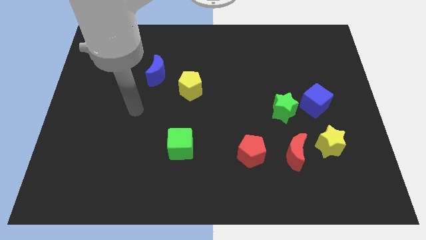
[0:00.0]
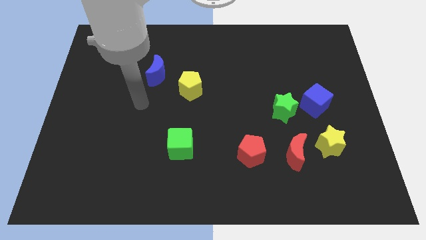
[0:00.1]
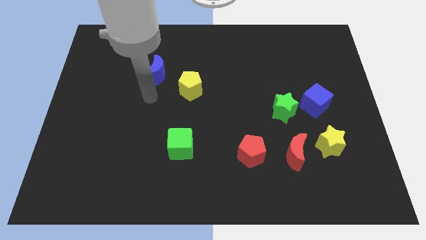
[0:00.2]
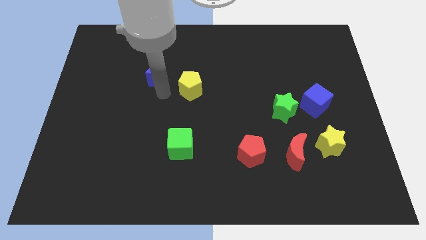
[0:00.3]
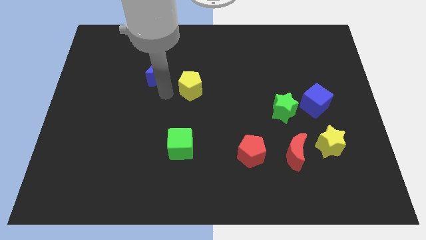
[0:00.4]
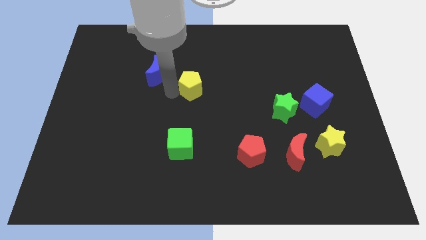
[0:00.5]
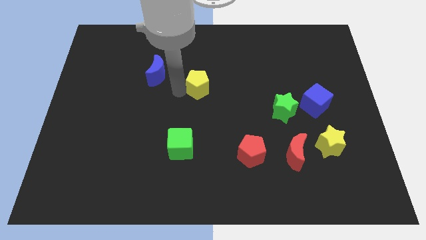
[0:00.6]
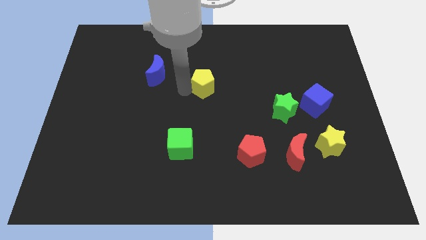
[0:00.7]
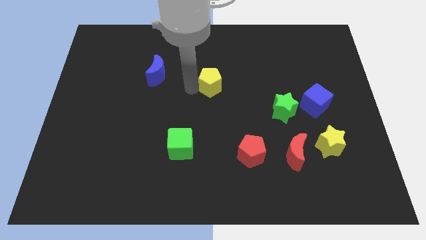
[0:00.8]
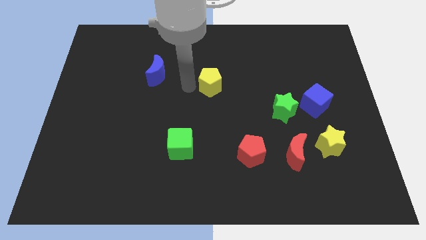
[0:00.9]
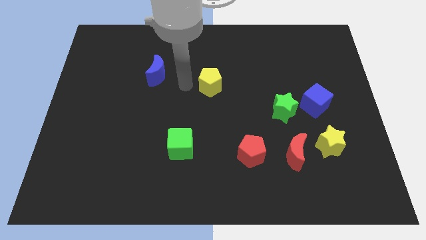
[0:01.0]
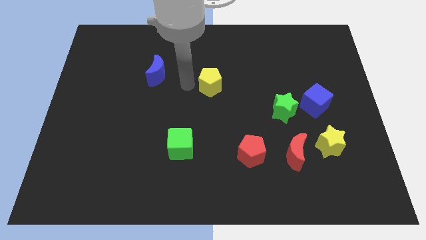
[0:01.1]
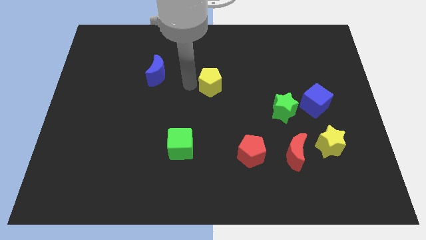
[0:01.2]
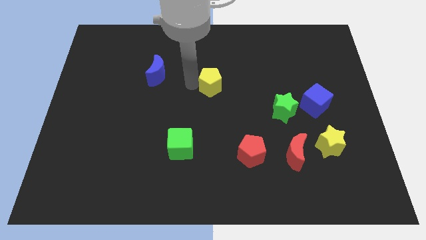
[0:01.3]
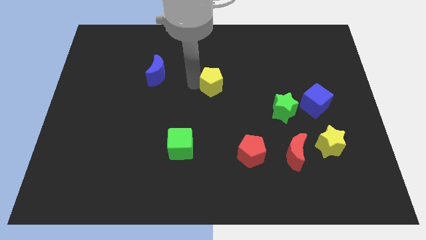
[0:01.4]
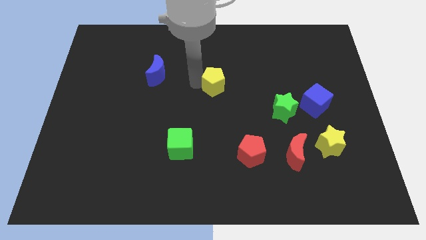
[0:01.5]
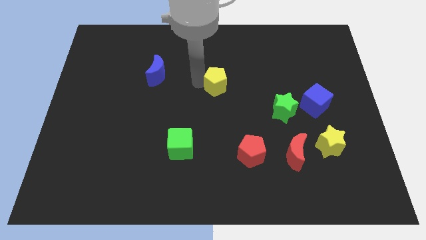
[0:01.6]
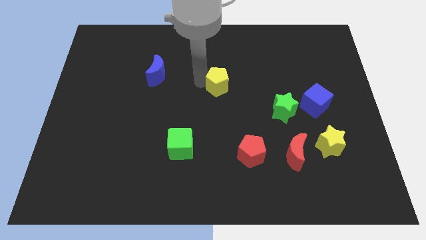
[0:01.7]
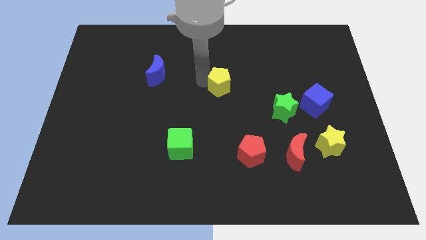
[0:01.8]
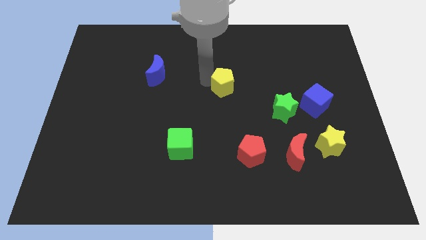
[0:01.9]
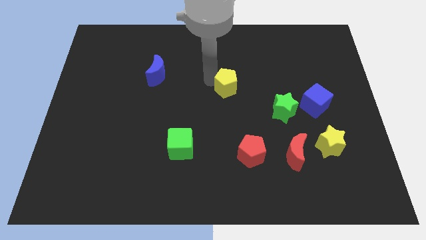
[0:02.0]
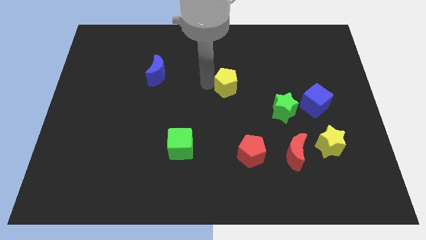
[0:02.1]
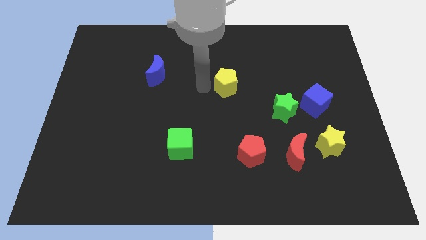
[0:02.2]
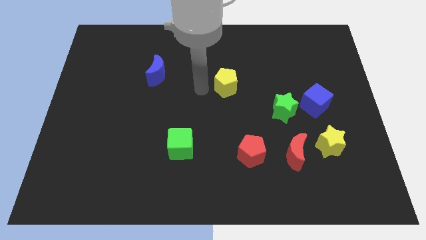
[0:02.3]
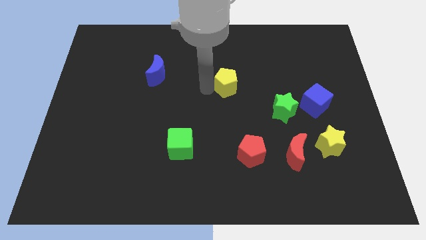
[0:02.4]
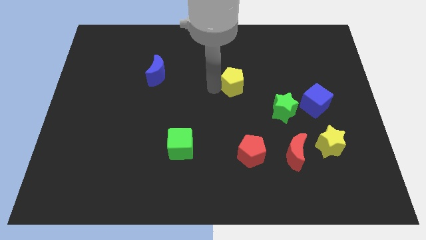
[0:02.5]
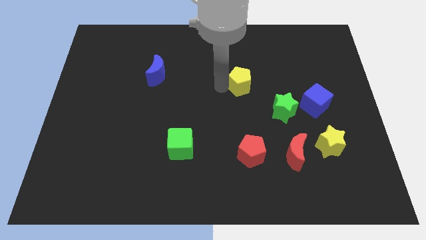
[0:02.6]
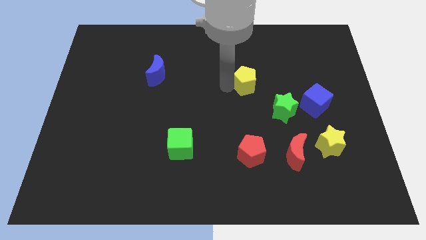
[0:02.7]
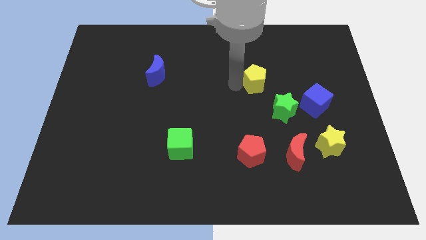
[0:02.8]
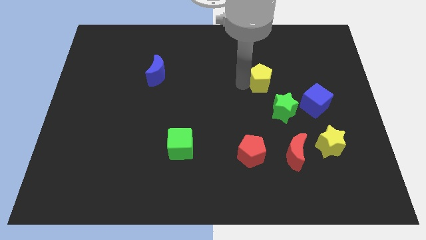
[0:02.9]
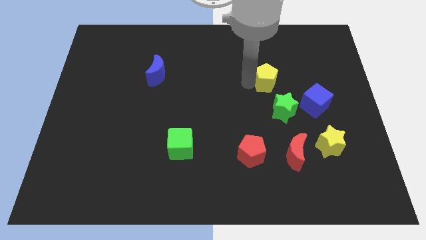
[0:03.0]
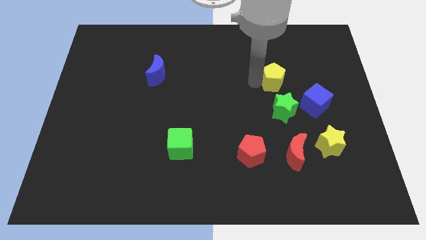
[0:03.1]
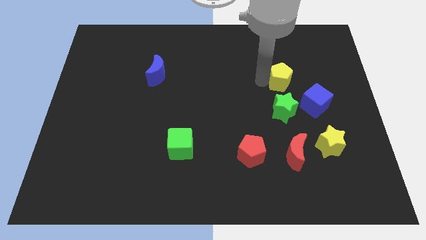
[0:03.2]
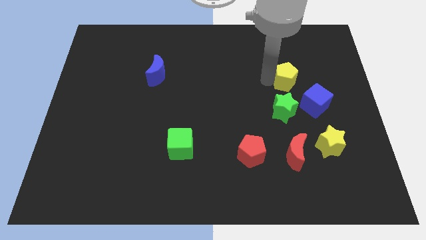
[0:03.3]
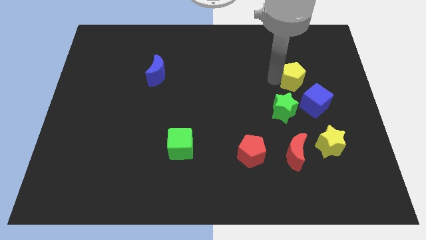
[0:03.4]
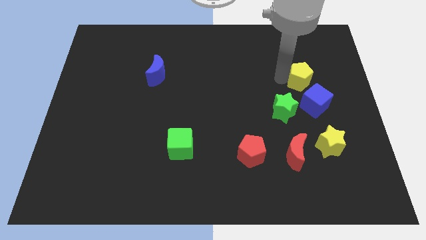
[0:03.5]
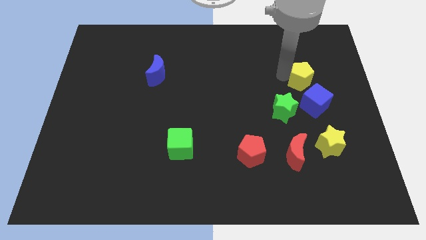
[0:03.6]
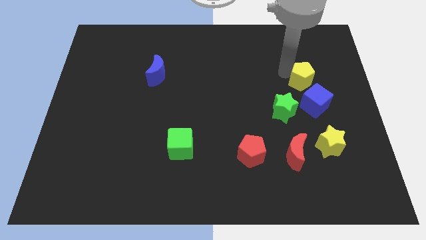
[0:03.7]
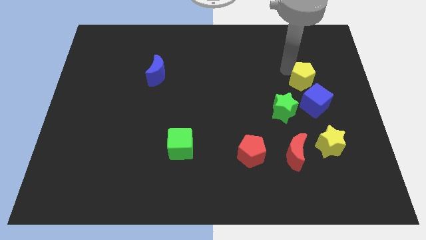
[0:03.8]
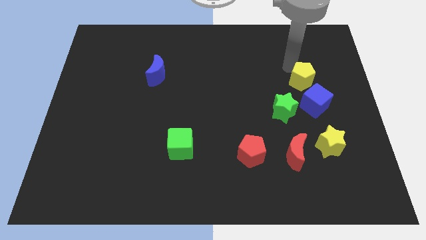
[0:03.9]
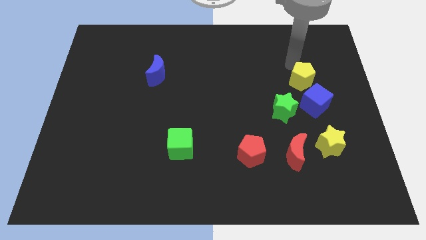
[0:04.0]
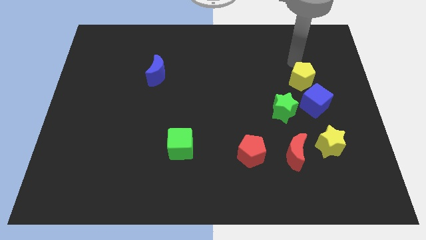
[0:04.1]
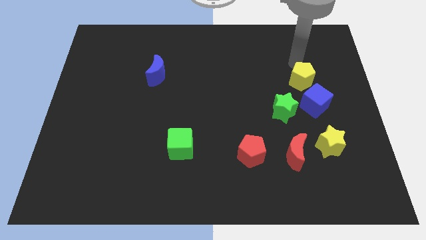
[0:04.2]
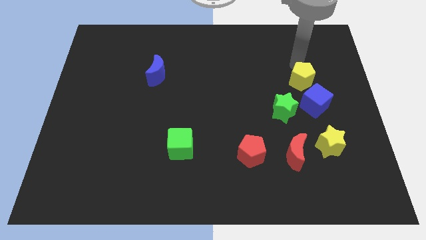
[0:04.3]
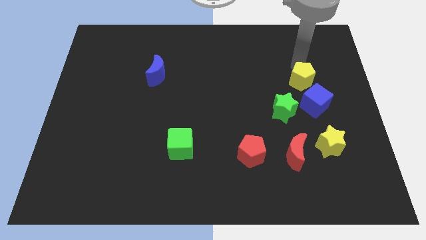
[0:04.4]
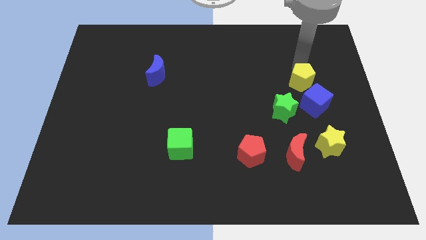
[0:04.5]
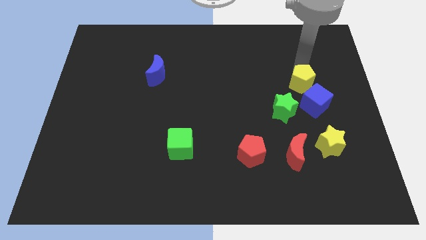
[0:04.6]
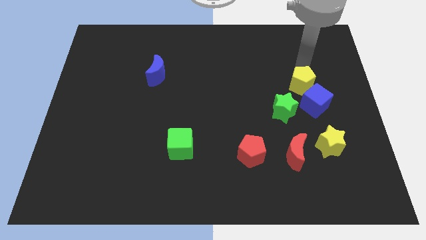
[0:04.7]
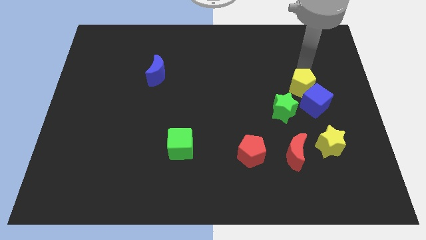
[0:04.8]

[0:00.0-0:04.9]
push the yellow pentagon to the blue cube

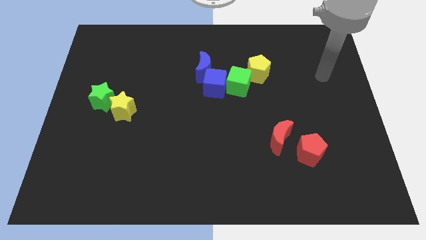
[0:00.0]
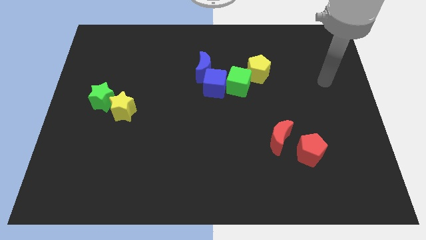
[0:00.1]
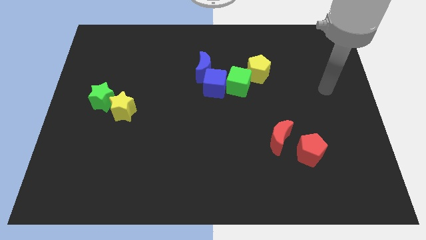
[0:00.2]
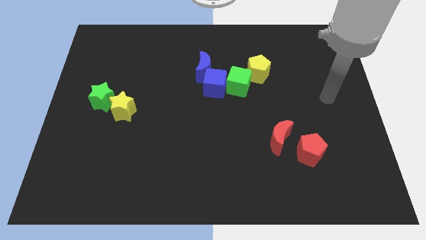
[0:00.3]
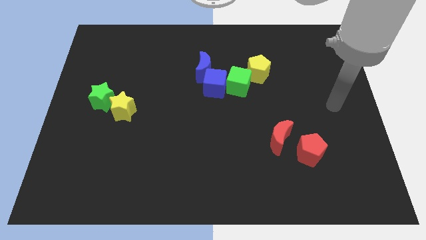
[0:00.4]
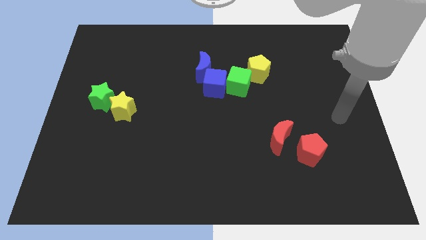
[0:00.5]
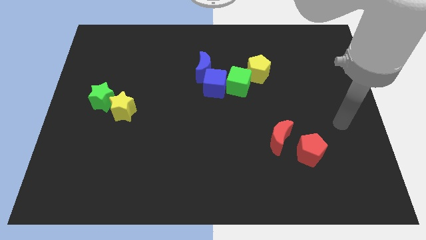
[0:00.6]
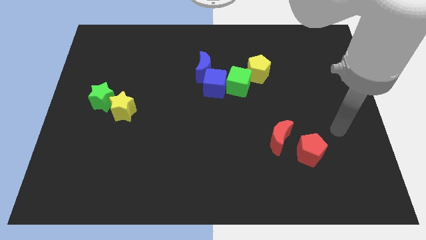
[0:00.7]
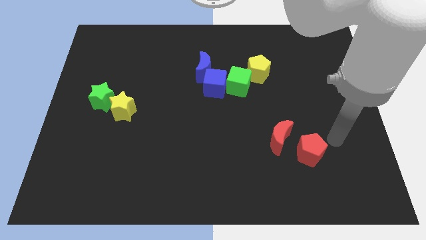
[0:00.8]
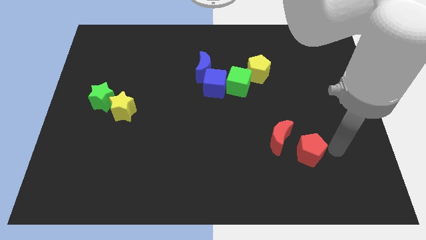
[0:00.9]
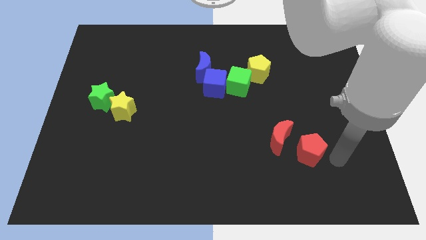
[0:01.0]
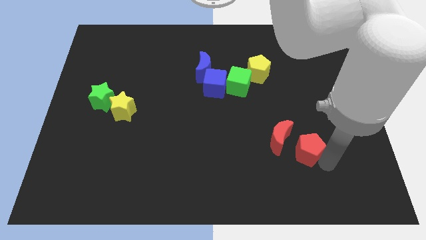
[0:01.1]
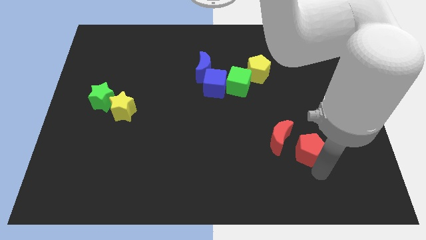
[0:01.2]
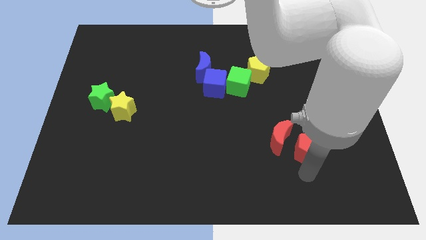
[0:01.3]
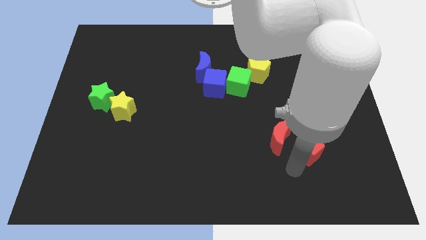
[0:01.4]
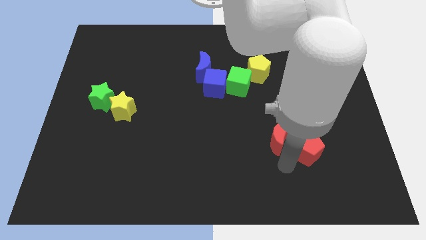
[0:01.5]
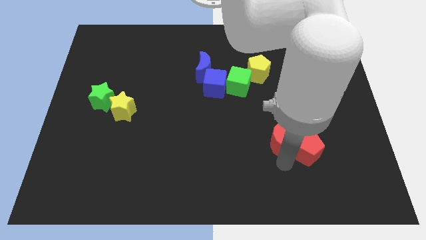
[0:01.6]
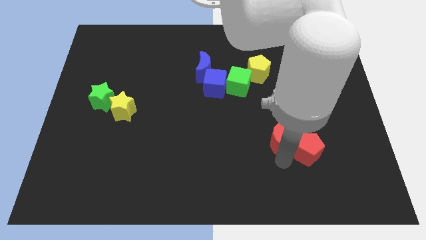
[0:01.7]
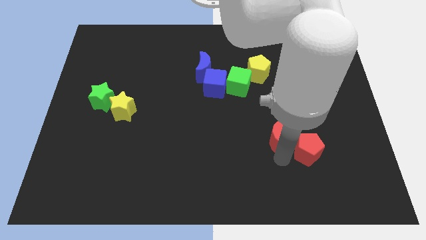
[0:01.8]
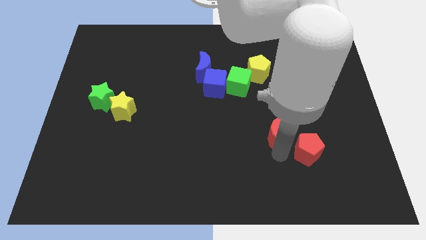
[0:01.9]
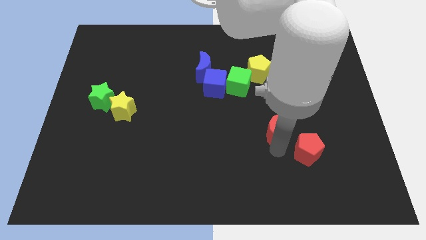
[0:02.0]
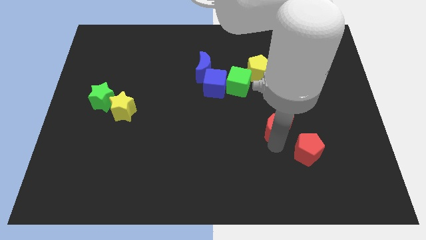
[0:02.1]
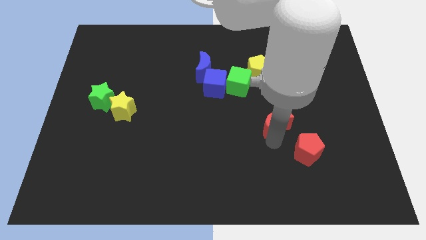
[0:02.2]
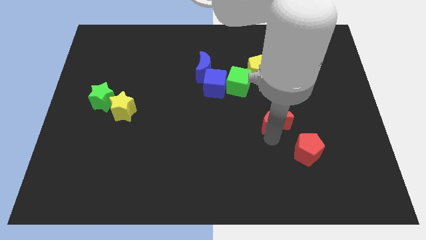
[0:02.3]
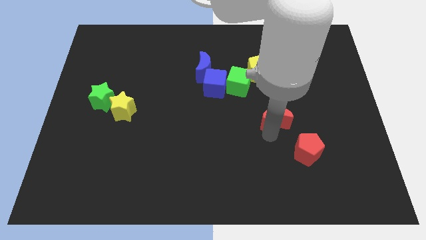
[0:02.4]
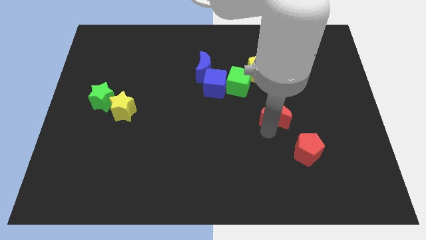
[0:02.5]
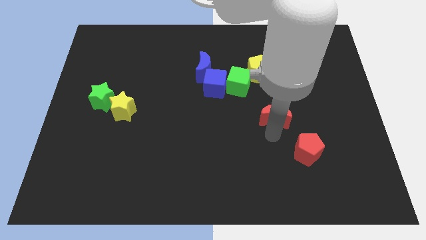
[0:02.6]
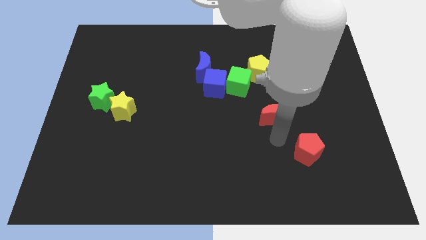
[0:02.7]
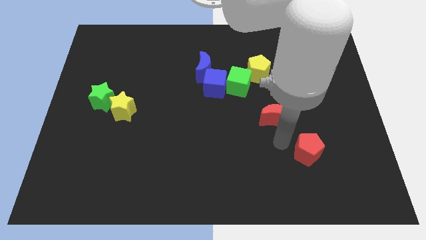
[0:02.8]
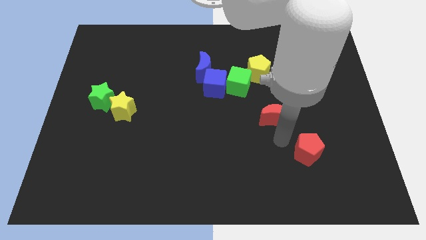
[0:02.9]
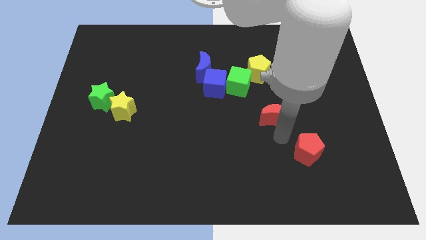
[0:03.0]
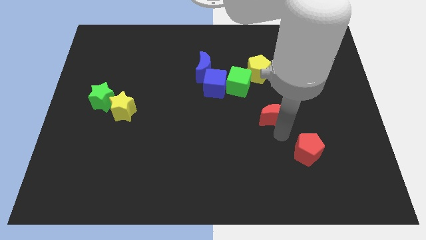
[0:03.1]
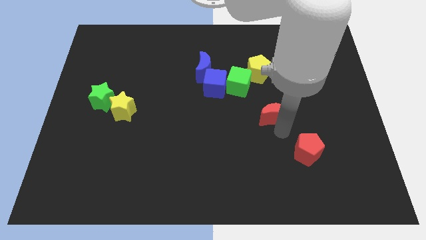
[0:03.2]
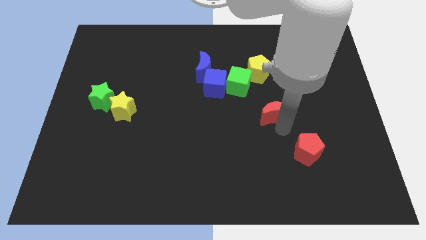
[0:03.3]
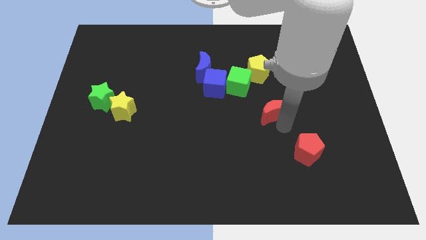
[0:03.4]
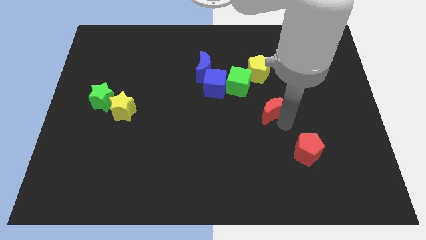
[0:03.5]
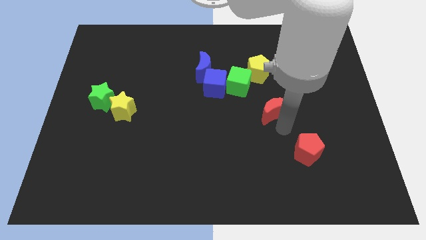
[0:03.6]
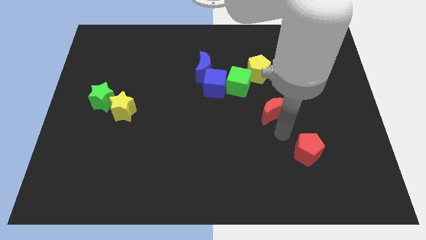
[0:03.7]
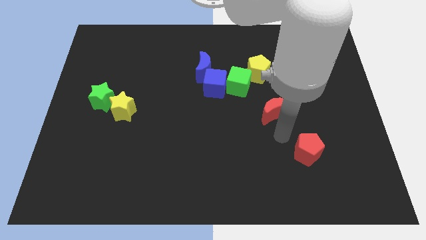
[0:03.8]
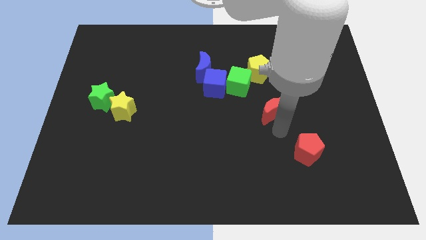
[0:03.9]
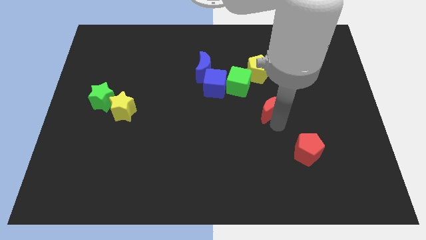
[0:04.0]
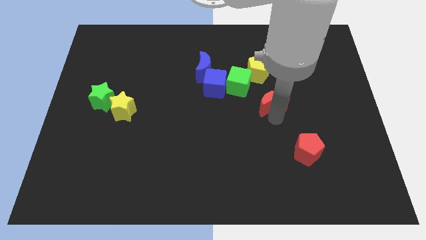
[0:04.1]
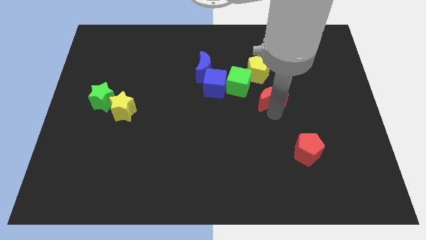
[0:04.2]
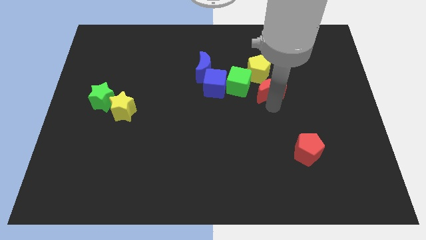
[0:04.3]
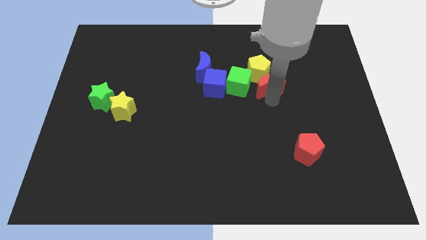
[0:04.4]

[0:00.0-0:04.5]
put the red moon next to the yellow pentagon
